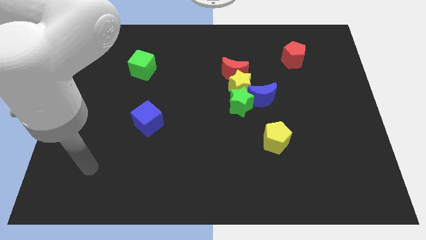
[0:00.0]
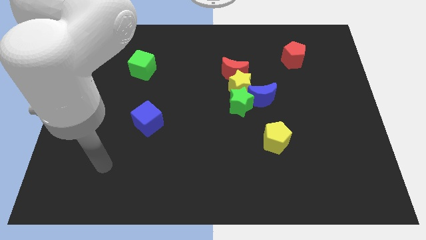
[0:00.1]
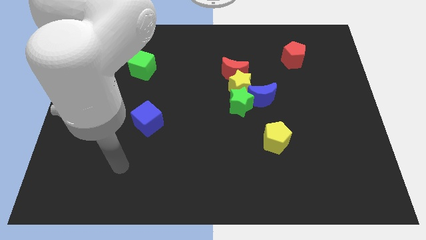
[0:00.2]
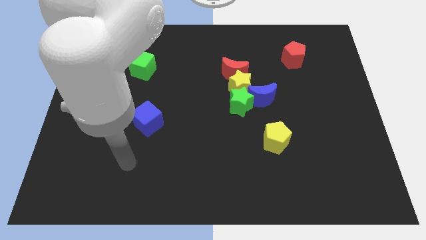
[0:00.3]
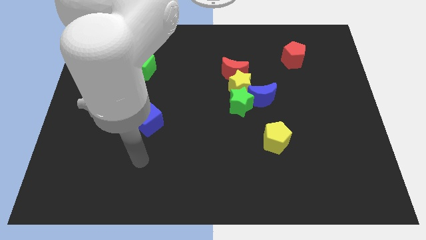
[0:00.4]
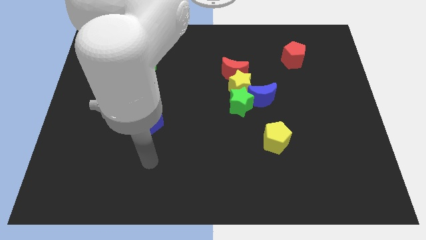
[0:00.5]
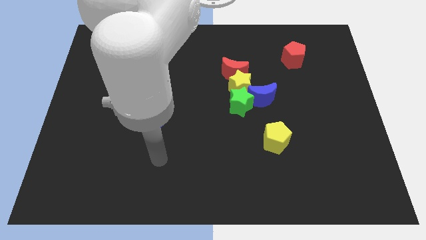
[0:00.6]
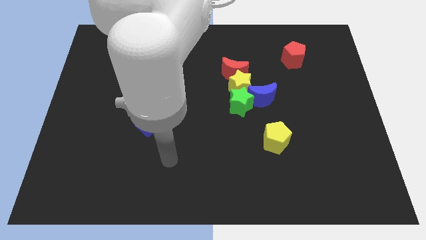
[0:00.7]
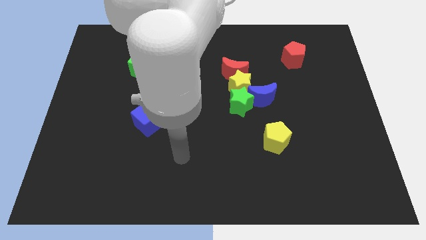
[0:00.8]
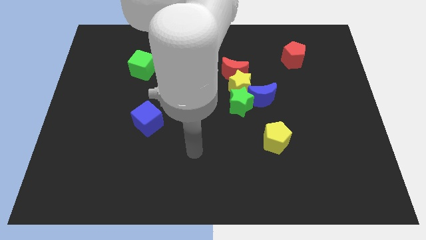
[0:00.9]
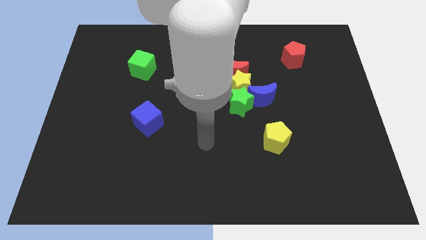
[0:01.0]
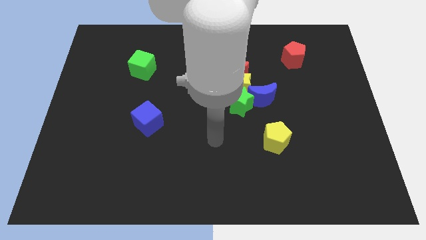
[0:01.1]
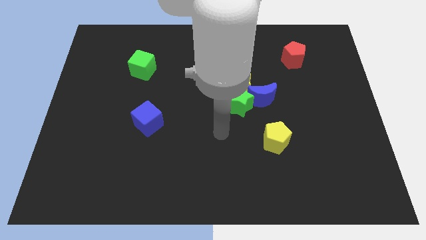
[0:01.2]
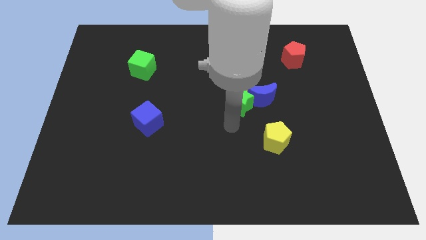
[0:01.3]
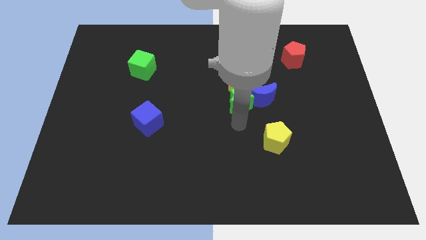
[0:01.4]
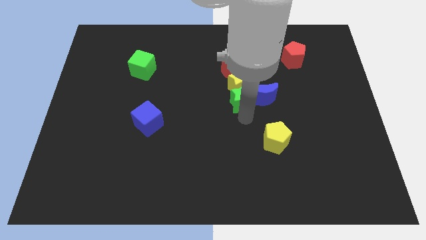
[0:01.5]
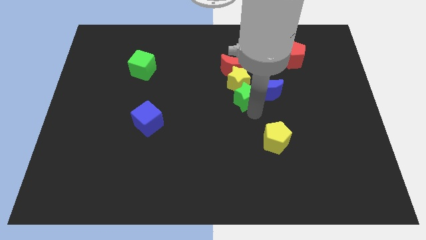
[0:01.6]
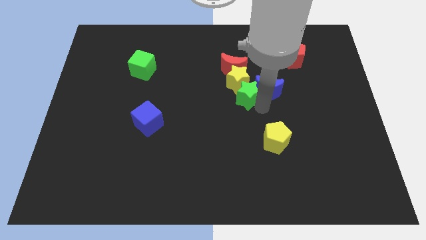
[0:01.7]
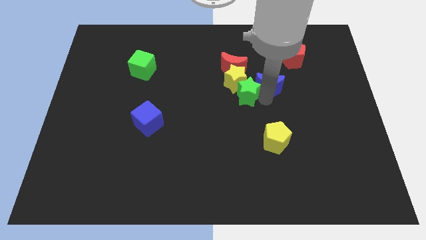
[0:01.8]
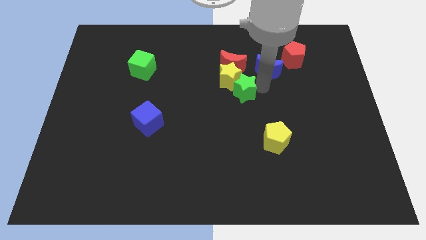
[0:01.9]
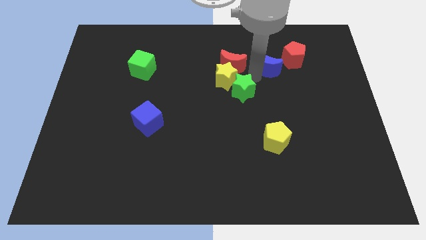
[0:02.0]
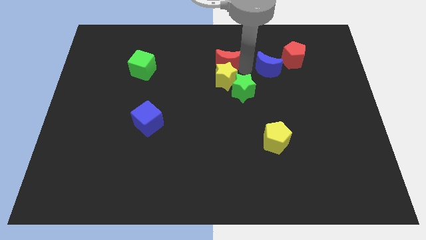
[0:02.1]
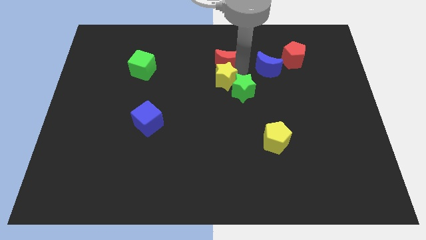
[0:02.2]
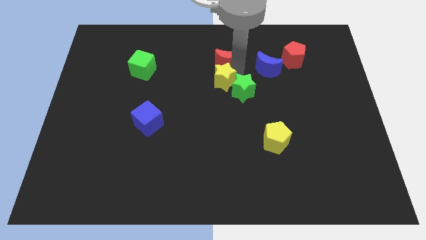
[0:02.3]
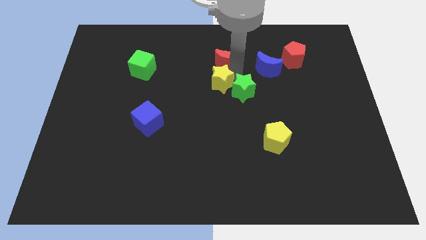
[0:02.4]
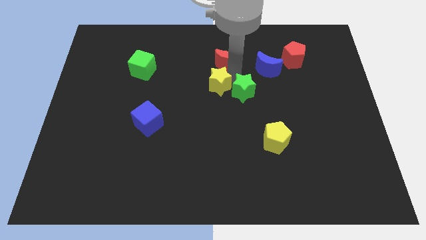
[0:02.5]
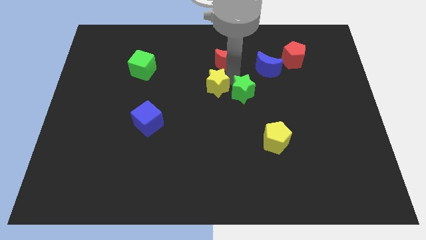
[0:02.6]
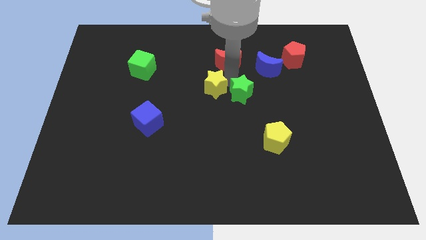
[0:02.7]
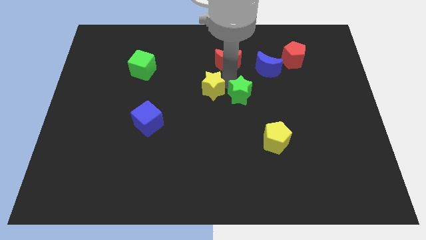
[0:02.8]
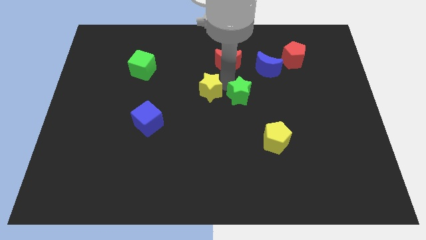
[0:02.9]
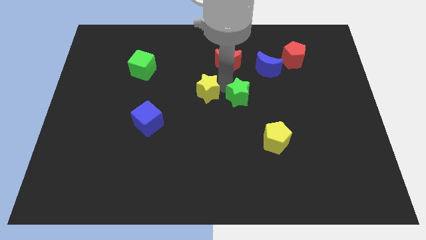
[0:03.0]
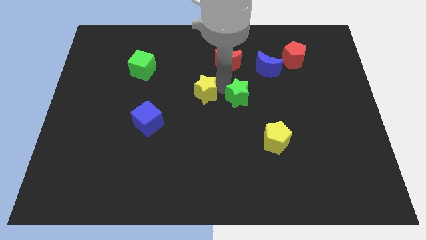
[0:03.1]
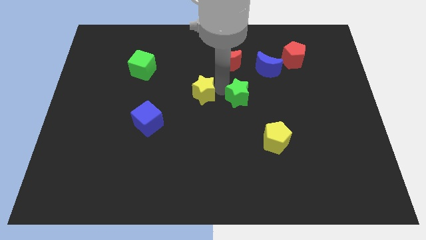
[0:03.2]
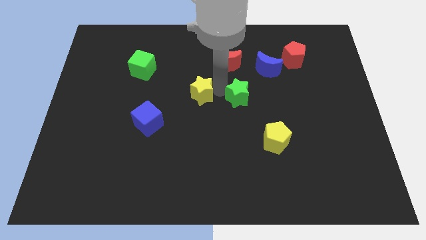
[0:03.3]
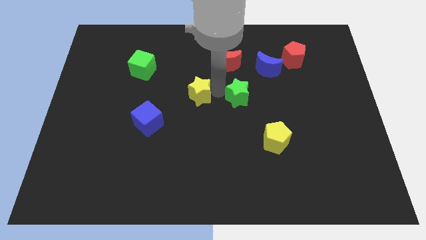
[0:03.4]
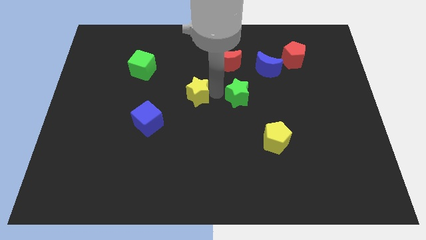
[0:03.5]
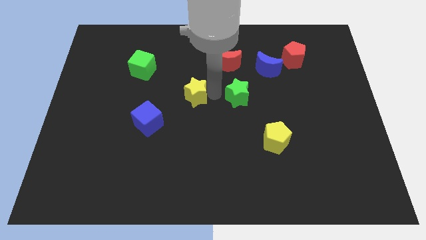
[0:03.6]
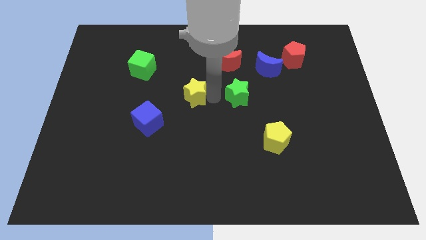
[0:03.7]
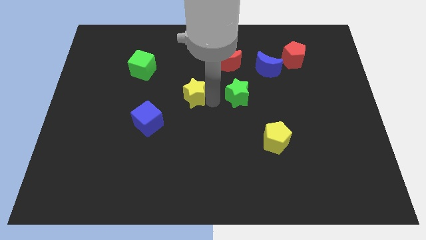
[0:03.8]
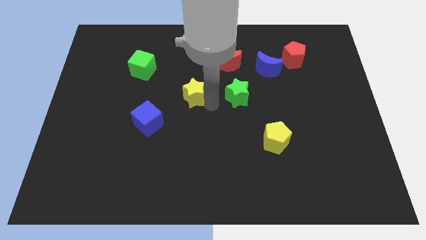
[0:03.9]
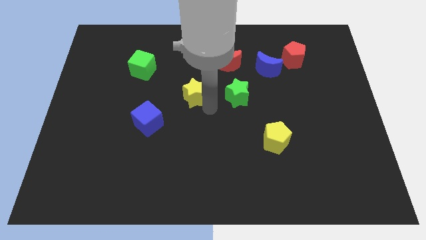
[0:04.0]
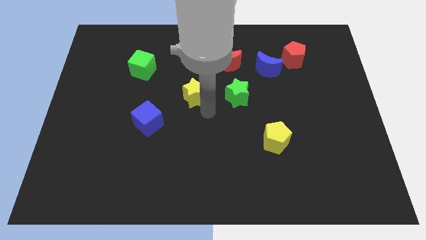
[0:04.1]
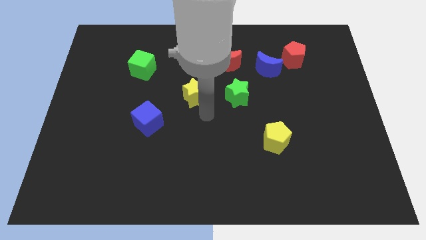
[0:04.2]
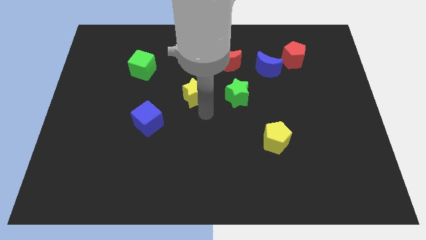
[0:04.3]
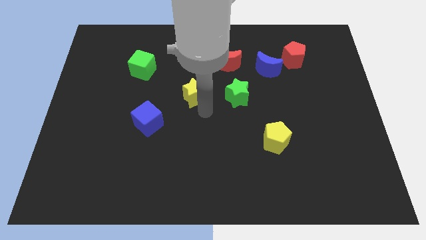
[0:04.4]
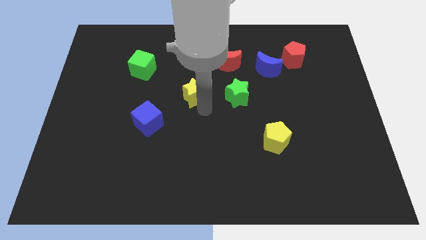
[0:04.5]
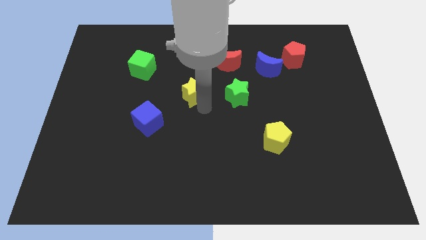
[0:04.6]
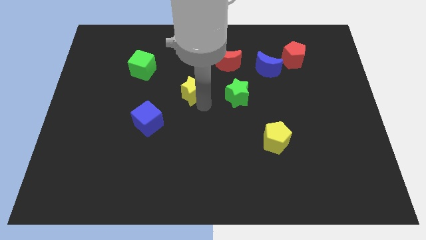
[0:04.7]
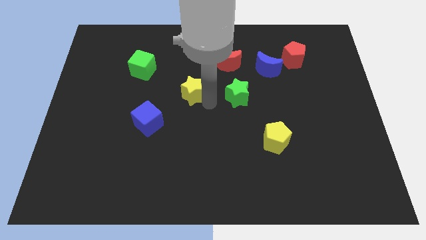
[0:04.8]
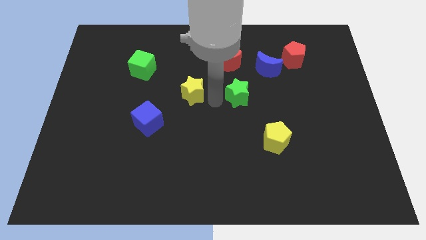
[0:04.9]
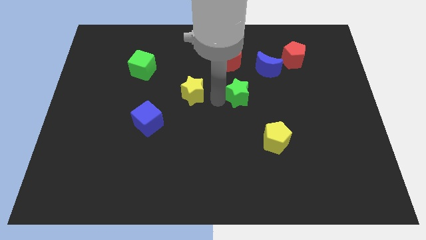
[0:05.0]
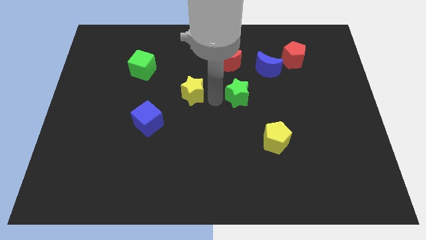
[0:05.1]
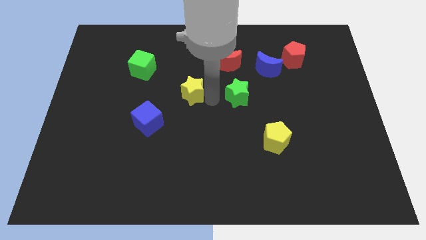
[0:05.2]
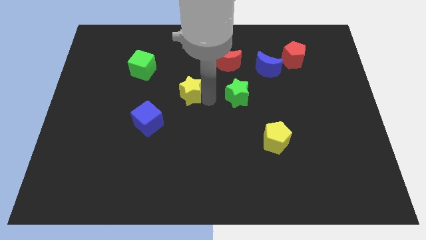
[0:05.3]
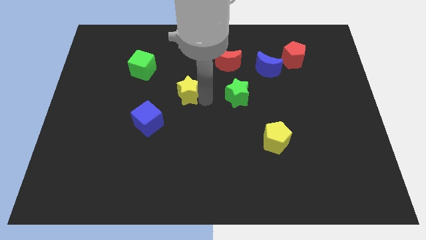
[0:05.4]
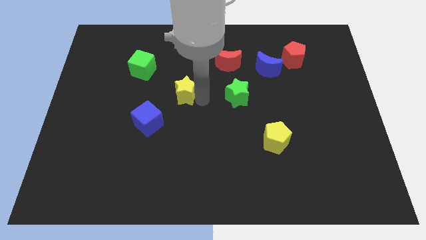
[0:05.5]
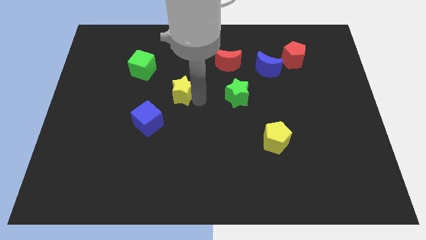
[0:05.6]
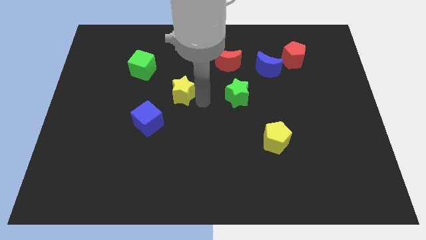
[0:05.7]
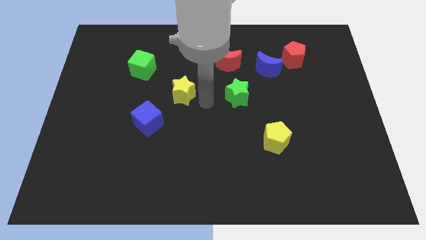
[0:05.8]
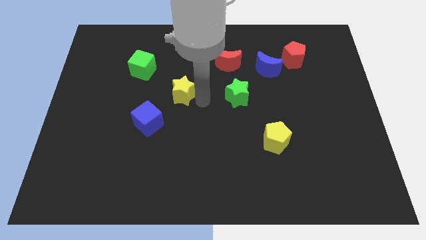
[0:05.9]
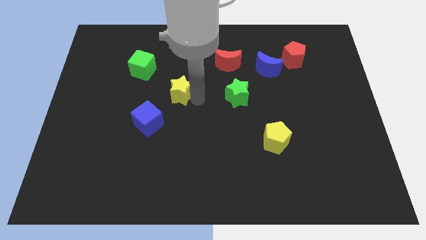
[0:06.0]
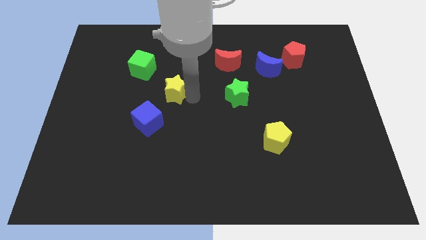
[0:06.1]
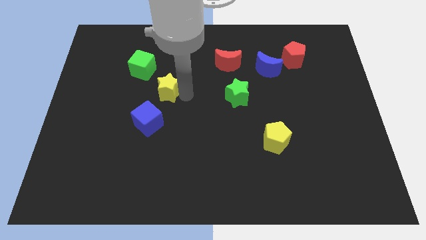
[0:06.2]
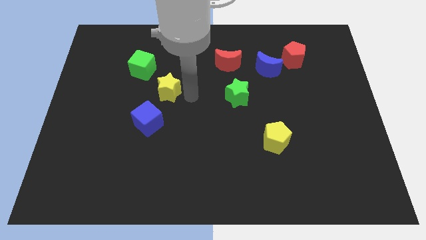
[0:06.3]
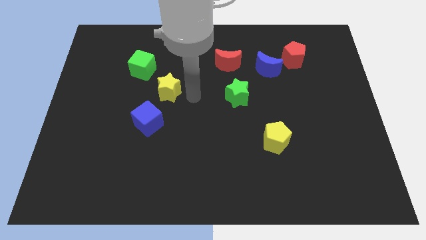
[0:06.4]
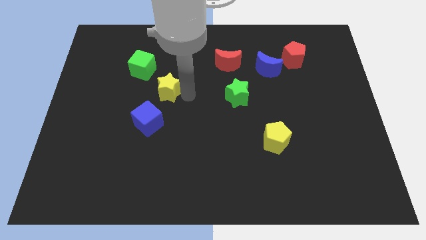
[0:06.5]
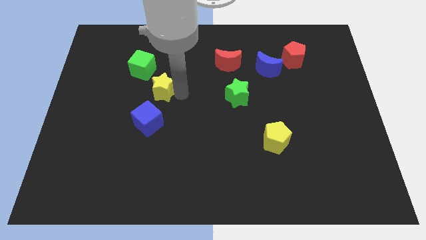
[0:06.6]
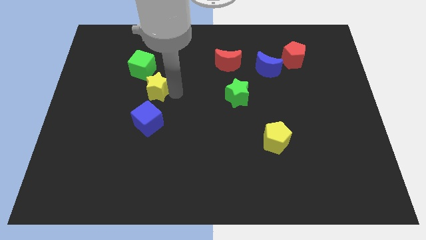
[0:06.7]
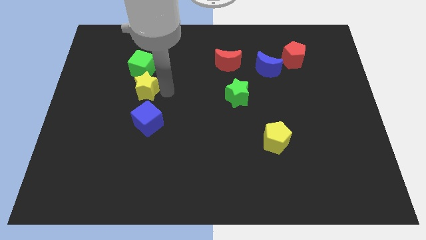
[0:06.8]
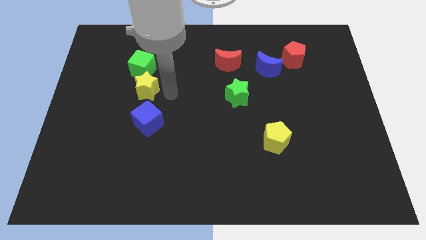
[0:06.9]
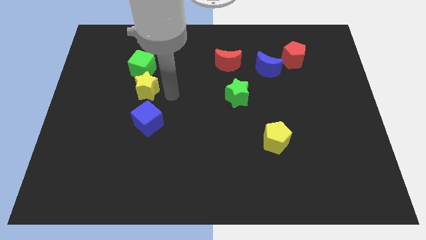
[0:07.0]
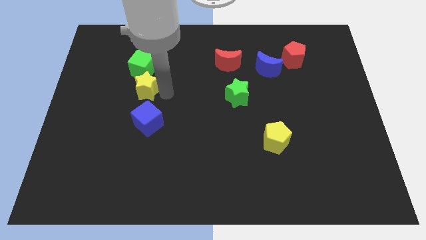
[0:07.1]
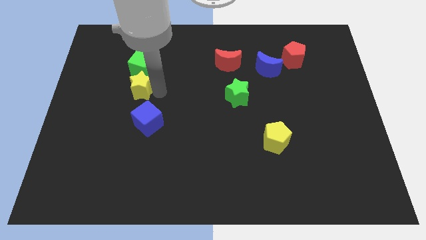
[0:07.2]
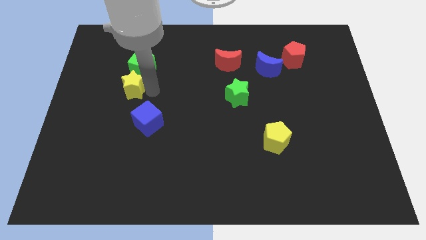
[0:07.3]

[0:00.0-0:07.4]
push the yellow star diagonally down and to the left of the green cube
